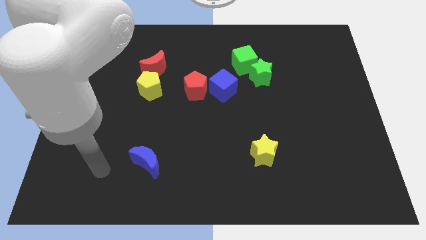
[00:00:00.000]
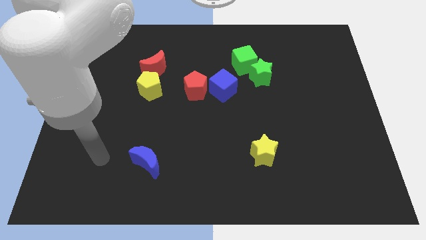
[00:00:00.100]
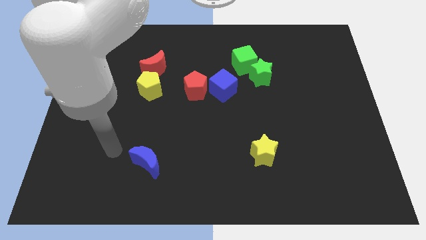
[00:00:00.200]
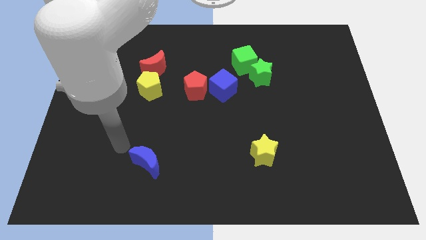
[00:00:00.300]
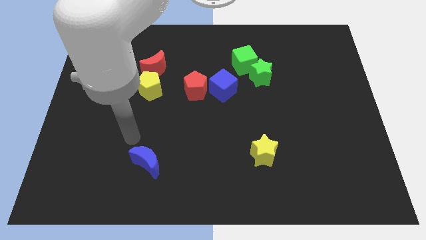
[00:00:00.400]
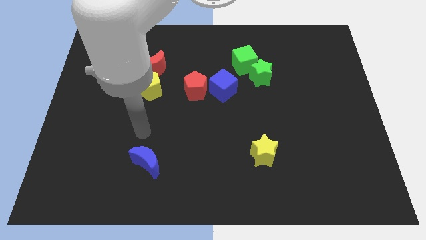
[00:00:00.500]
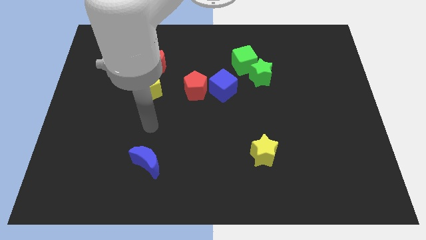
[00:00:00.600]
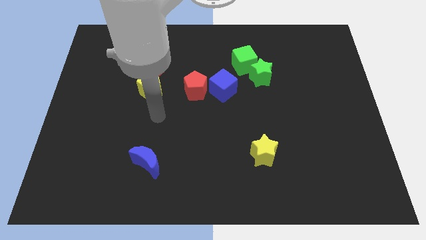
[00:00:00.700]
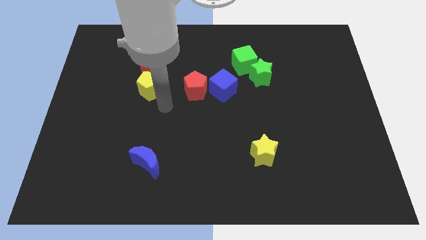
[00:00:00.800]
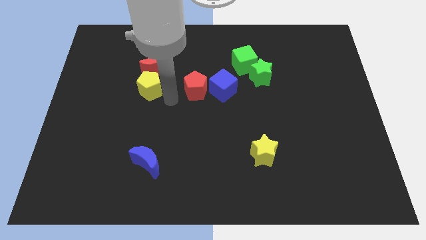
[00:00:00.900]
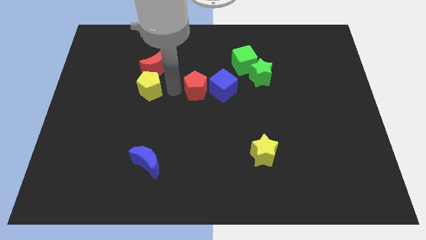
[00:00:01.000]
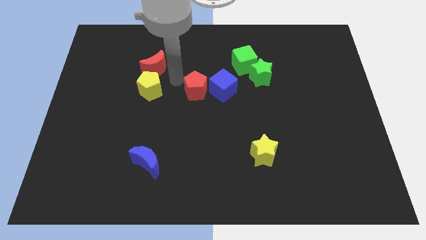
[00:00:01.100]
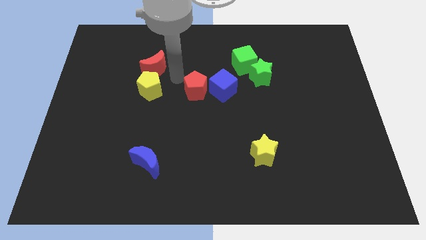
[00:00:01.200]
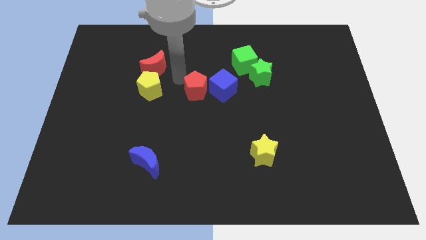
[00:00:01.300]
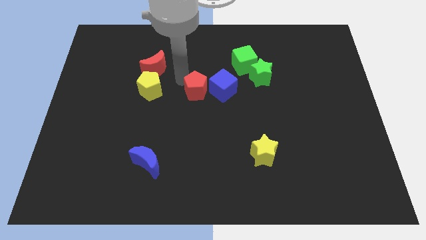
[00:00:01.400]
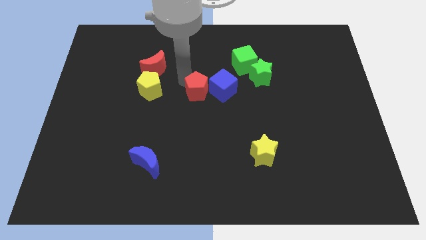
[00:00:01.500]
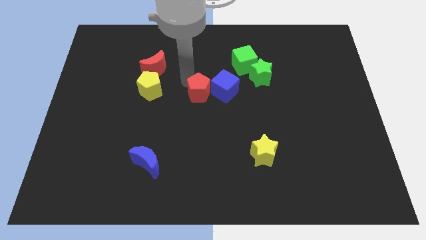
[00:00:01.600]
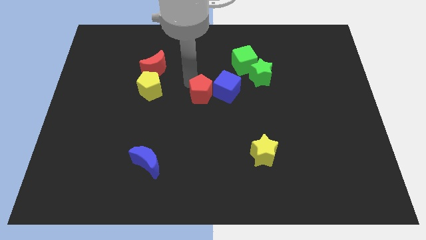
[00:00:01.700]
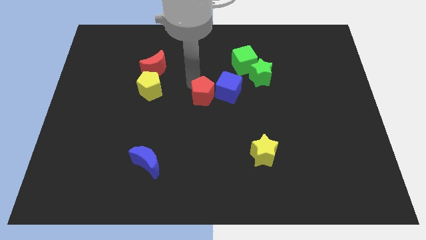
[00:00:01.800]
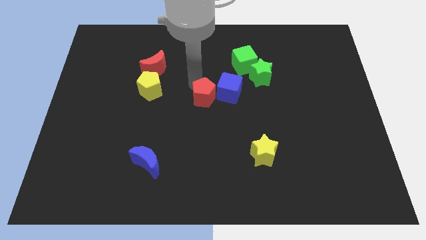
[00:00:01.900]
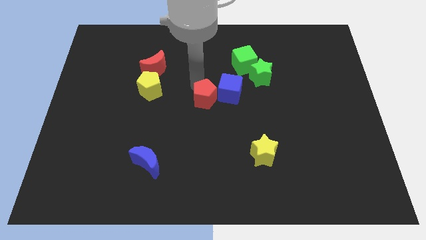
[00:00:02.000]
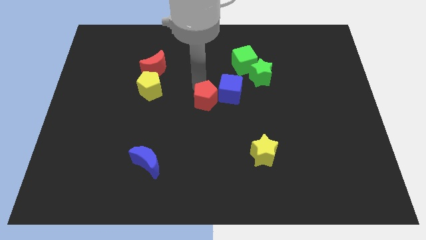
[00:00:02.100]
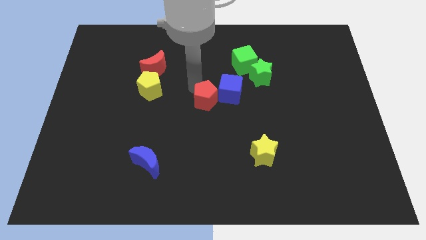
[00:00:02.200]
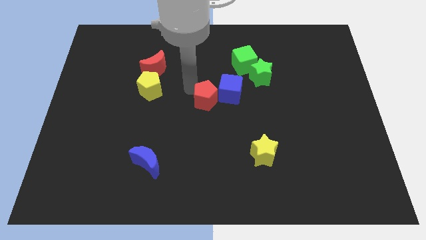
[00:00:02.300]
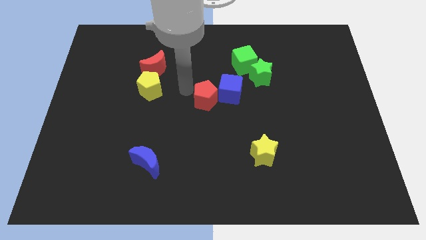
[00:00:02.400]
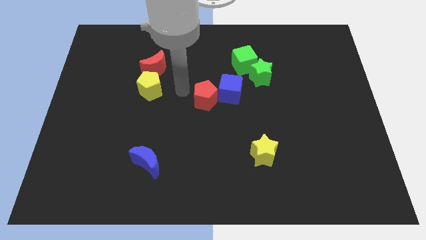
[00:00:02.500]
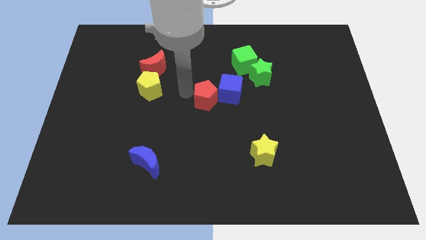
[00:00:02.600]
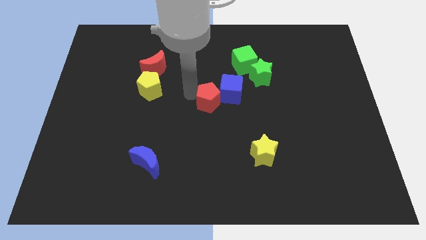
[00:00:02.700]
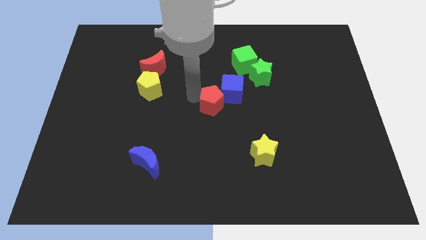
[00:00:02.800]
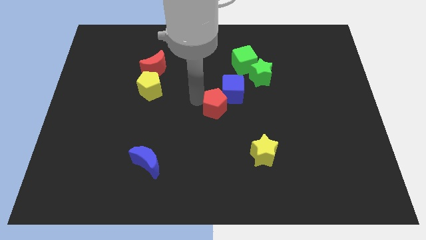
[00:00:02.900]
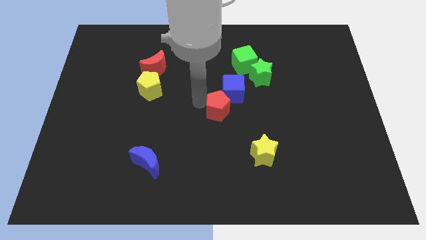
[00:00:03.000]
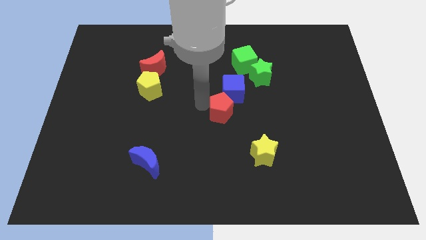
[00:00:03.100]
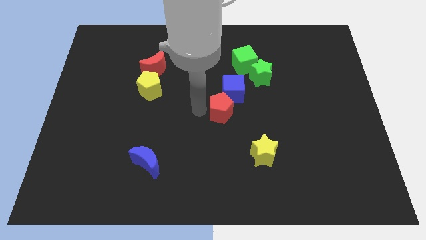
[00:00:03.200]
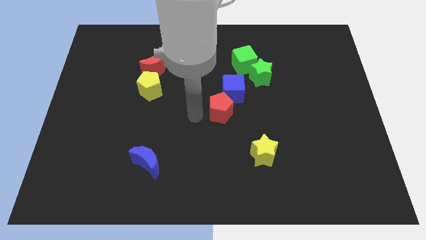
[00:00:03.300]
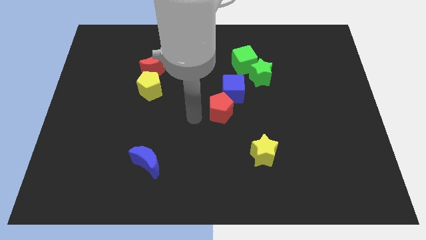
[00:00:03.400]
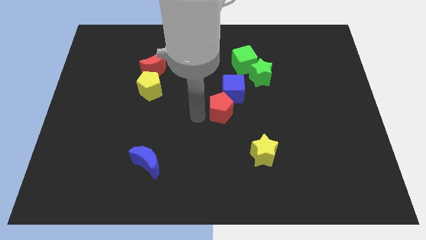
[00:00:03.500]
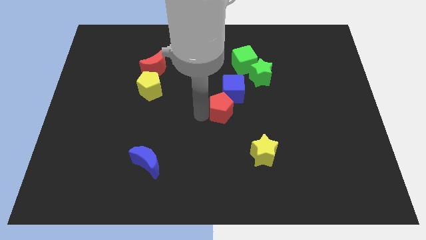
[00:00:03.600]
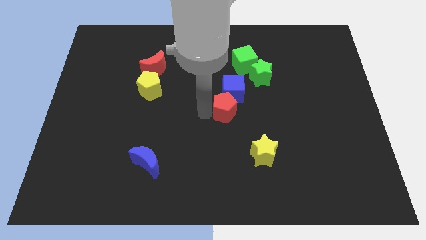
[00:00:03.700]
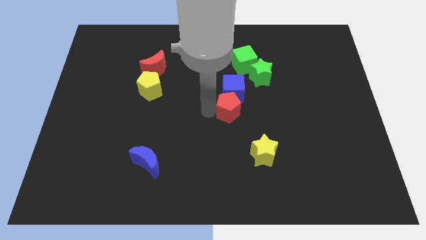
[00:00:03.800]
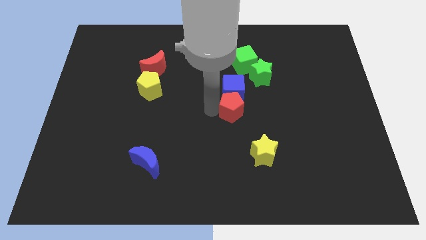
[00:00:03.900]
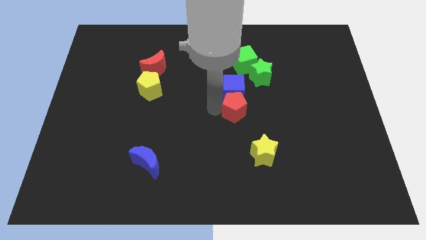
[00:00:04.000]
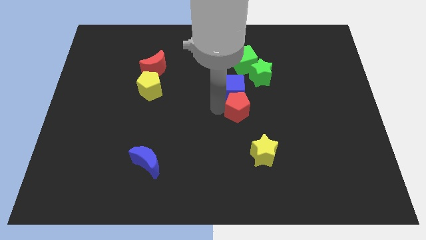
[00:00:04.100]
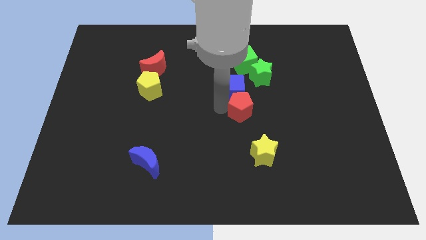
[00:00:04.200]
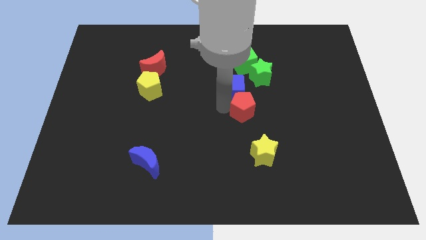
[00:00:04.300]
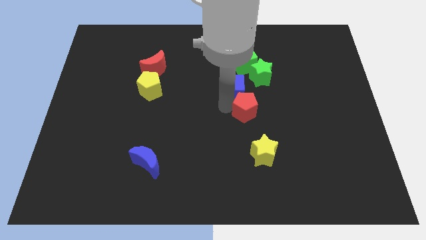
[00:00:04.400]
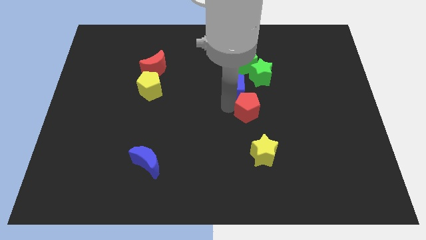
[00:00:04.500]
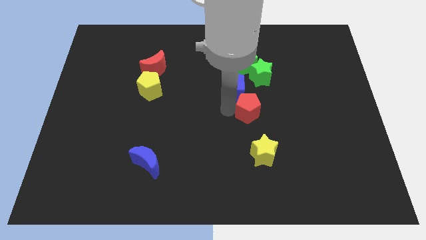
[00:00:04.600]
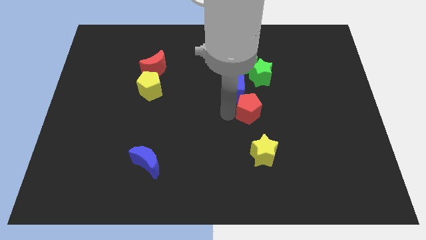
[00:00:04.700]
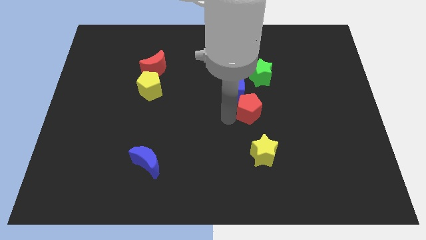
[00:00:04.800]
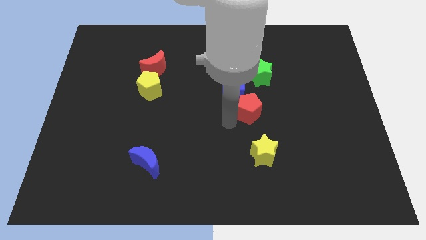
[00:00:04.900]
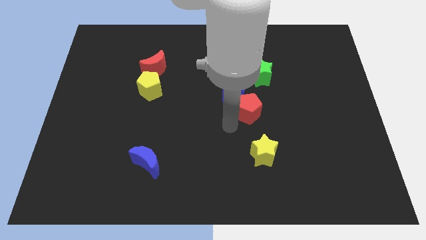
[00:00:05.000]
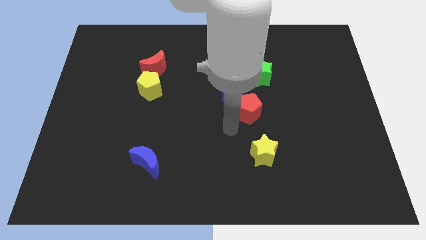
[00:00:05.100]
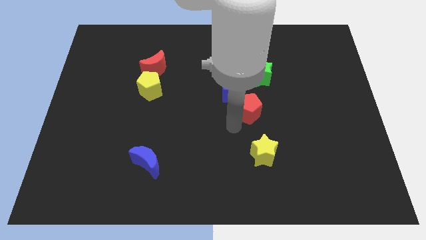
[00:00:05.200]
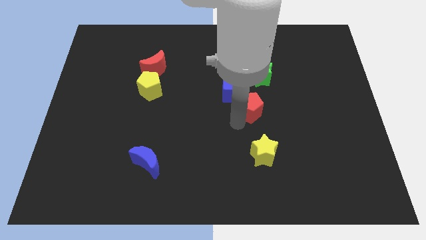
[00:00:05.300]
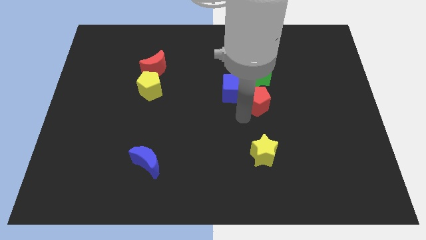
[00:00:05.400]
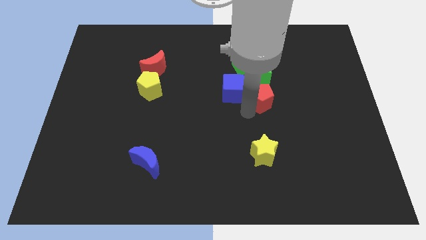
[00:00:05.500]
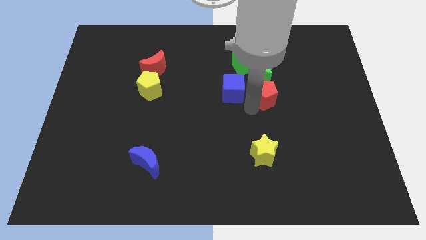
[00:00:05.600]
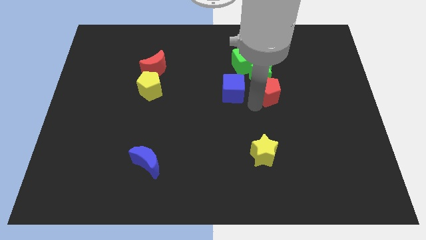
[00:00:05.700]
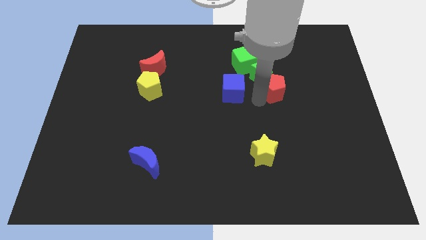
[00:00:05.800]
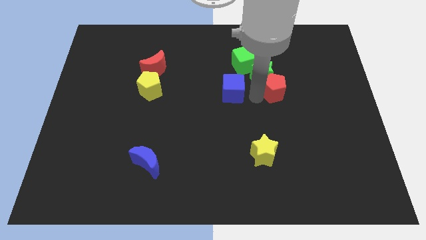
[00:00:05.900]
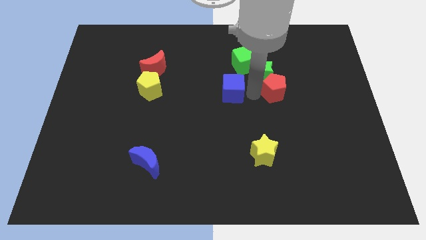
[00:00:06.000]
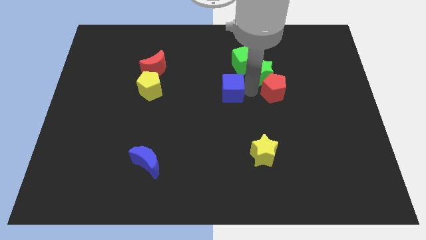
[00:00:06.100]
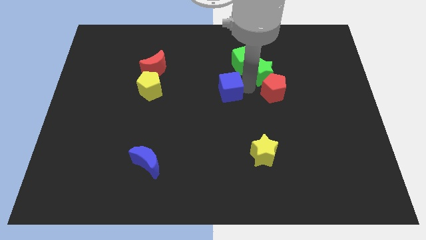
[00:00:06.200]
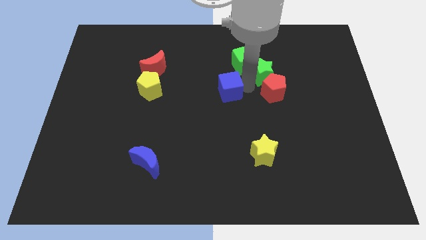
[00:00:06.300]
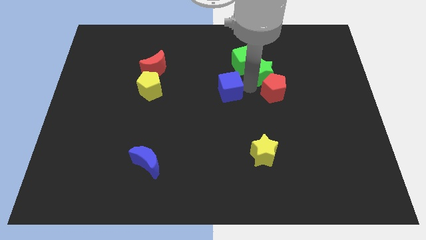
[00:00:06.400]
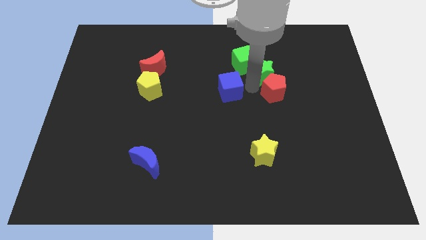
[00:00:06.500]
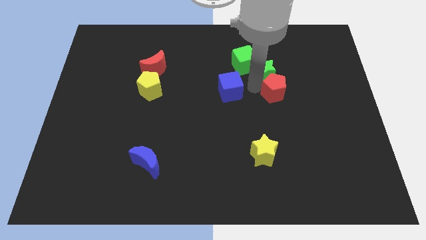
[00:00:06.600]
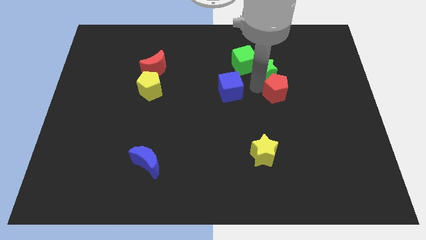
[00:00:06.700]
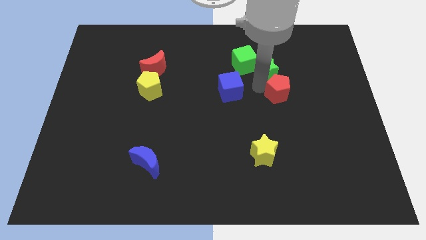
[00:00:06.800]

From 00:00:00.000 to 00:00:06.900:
push the red pentagon to the right

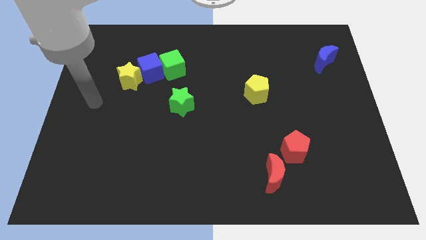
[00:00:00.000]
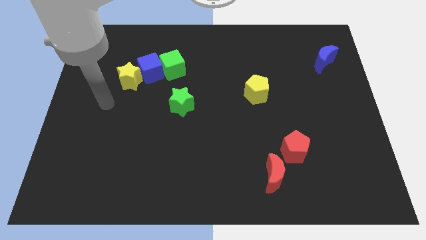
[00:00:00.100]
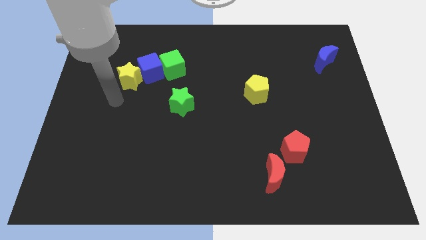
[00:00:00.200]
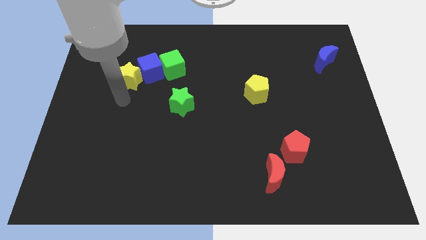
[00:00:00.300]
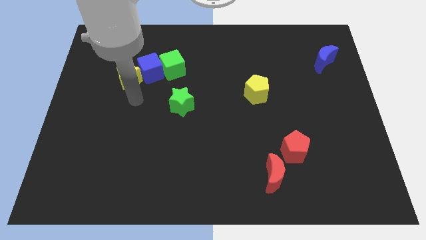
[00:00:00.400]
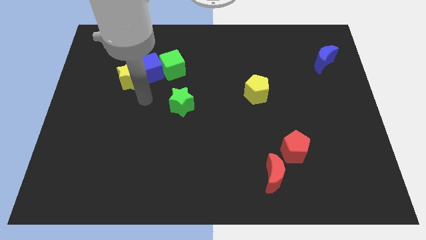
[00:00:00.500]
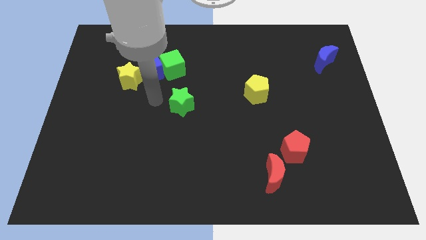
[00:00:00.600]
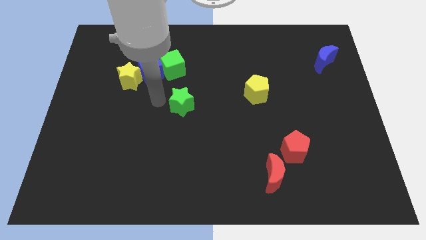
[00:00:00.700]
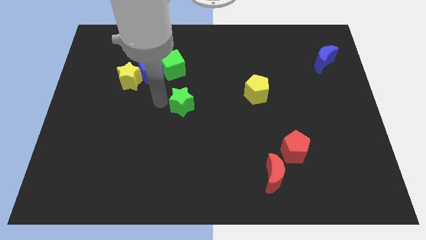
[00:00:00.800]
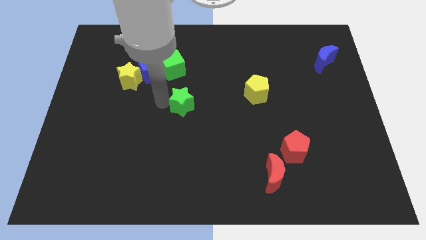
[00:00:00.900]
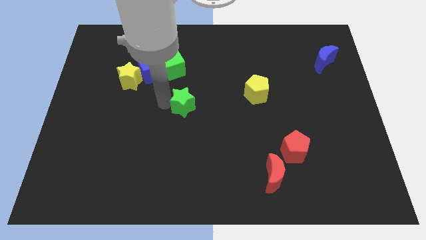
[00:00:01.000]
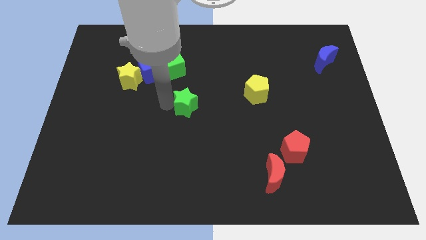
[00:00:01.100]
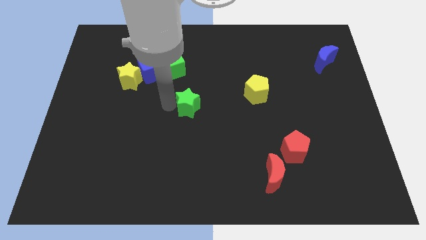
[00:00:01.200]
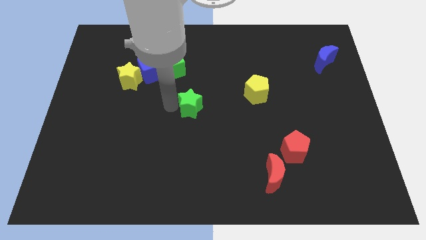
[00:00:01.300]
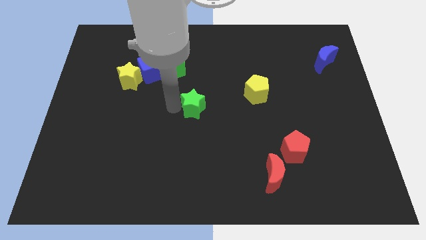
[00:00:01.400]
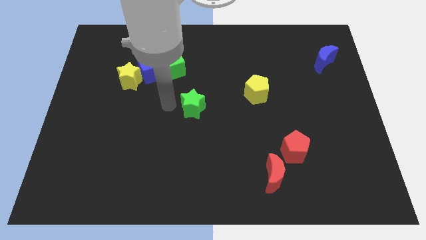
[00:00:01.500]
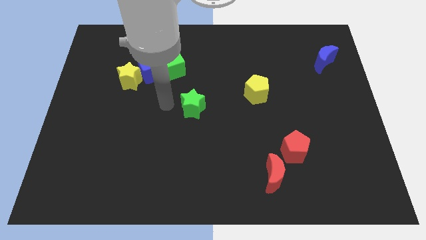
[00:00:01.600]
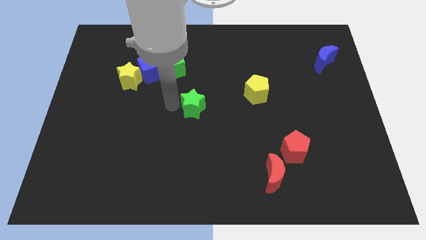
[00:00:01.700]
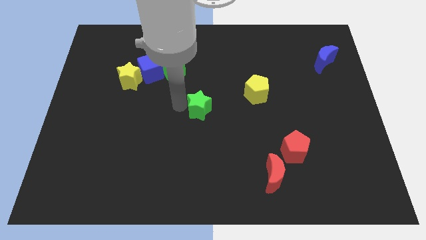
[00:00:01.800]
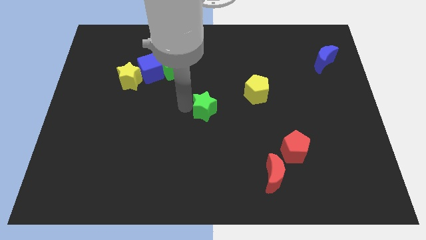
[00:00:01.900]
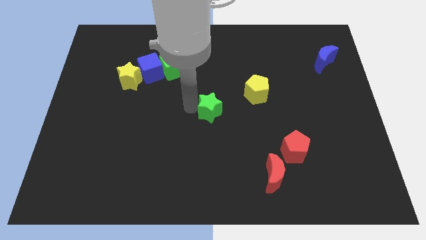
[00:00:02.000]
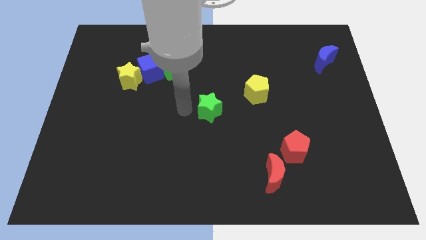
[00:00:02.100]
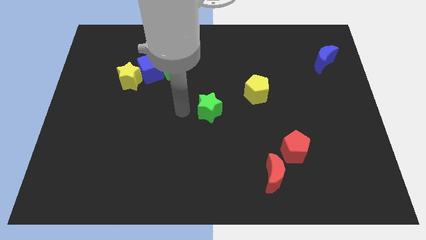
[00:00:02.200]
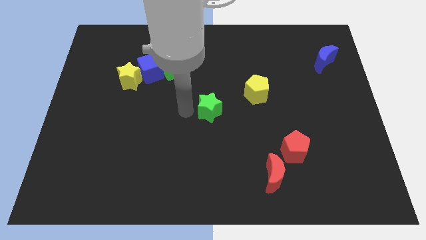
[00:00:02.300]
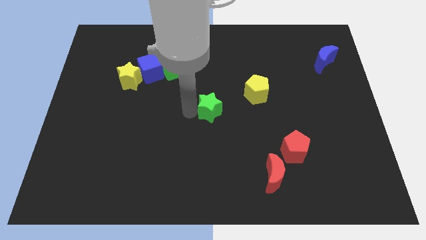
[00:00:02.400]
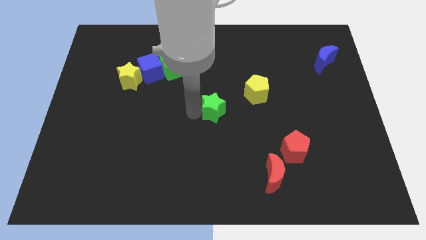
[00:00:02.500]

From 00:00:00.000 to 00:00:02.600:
slide the green star to the right somewhat
